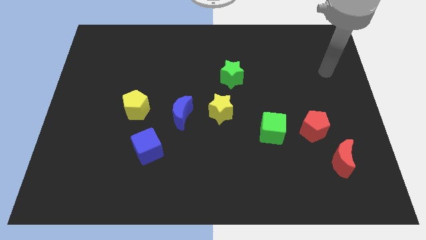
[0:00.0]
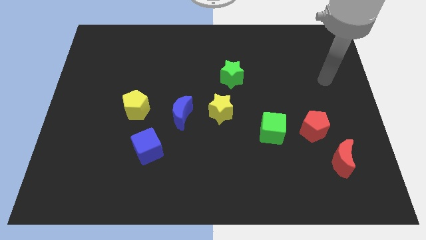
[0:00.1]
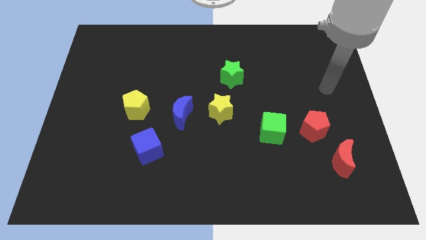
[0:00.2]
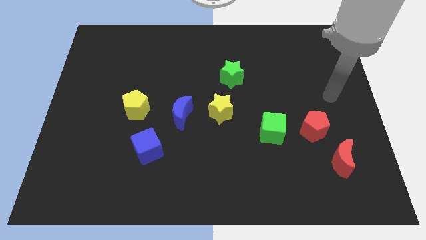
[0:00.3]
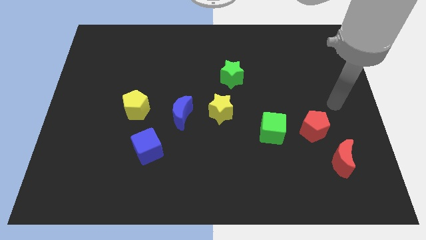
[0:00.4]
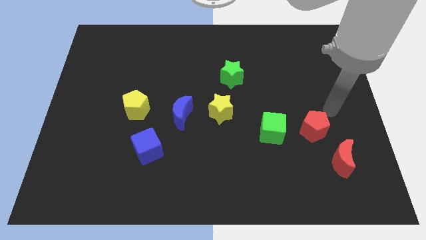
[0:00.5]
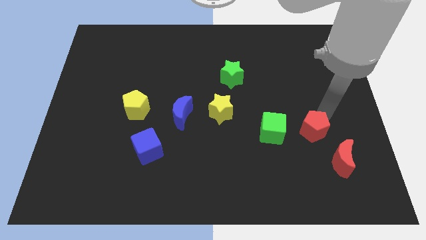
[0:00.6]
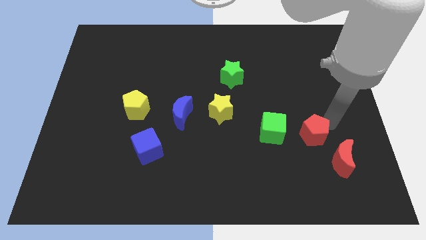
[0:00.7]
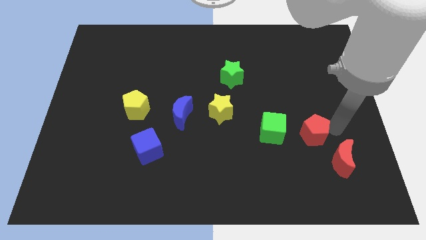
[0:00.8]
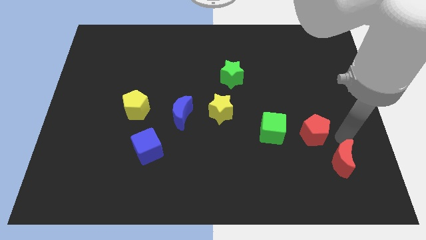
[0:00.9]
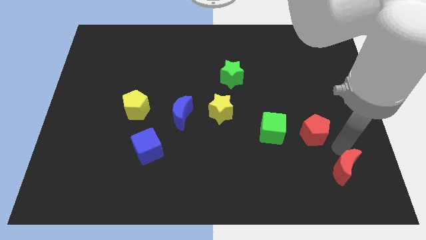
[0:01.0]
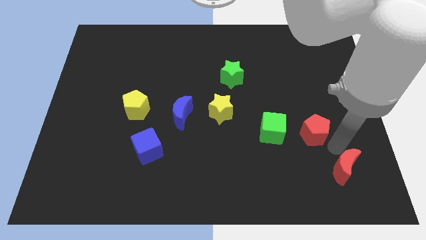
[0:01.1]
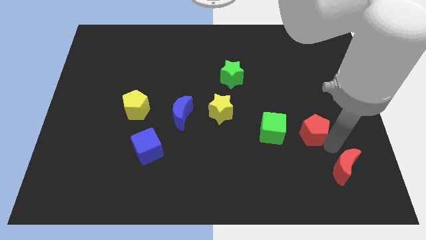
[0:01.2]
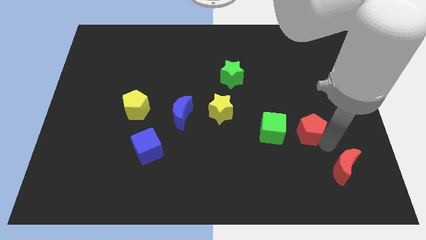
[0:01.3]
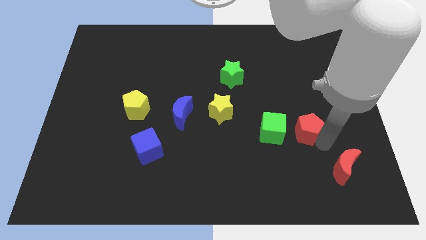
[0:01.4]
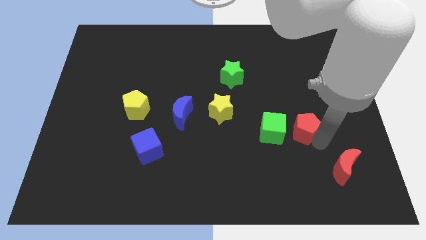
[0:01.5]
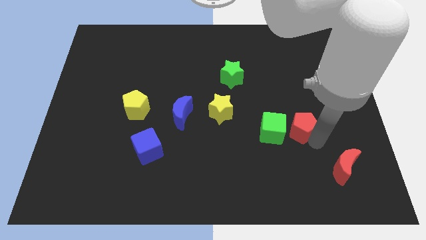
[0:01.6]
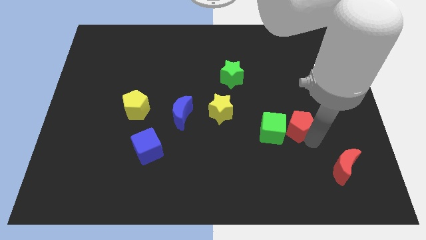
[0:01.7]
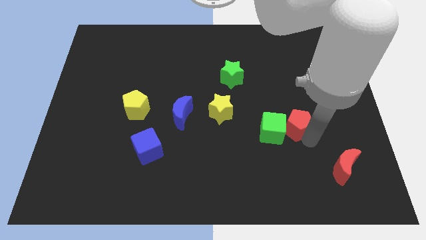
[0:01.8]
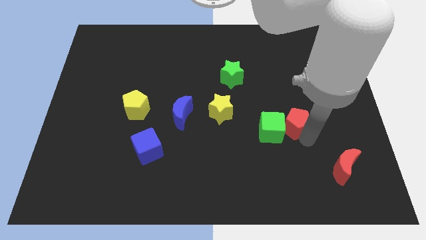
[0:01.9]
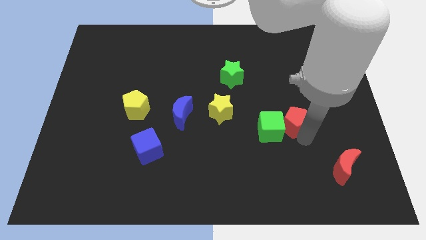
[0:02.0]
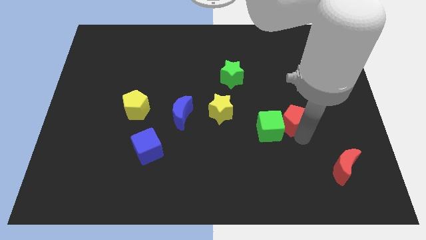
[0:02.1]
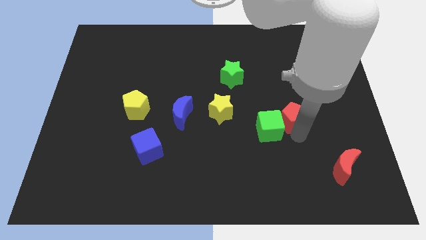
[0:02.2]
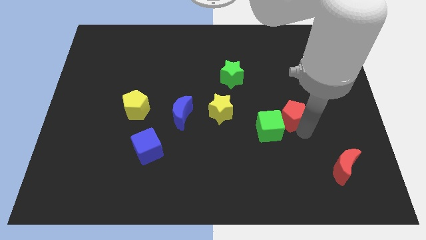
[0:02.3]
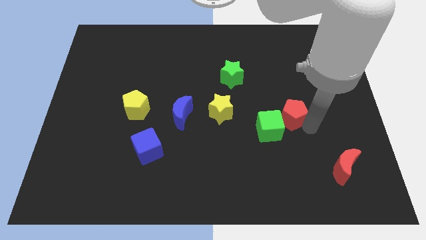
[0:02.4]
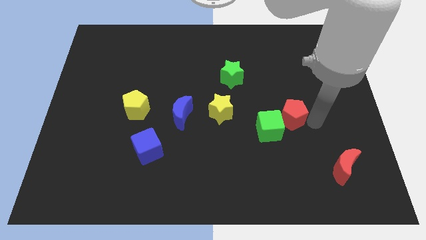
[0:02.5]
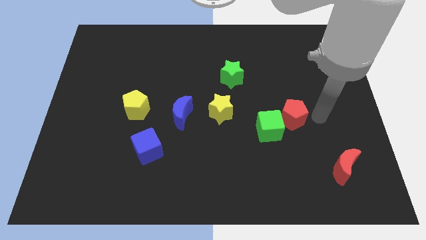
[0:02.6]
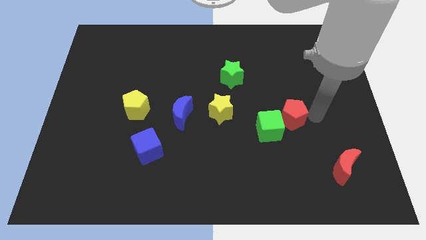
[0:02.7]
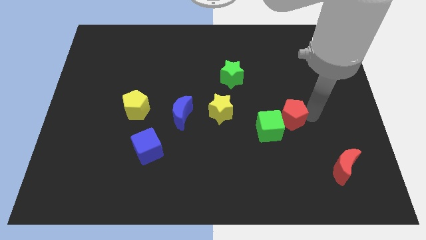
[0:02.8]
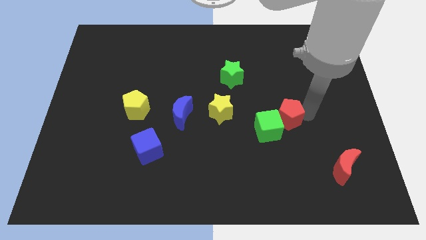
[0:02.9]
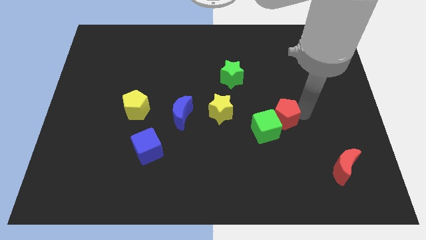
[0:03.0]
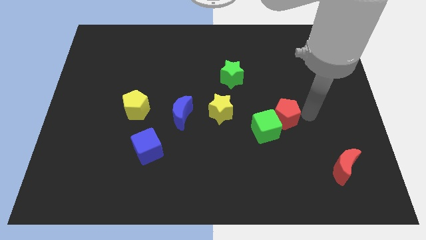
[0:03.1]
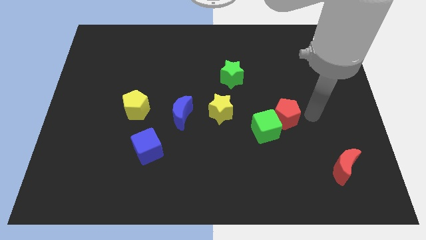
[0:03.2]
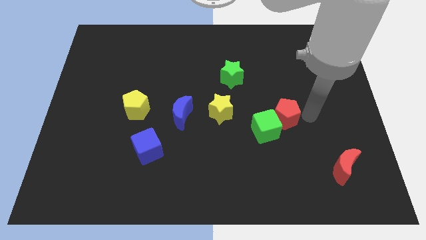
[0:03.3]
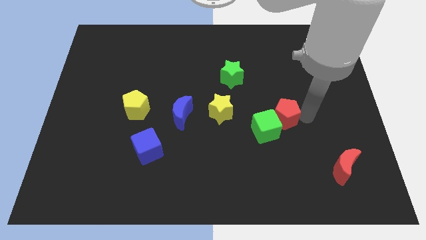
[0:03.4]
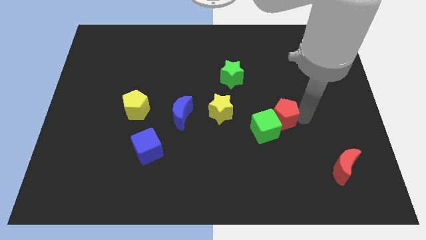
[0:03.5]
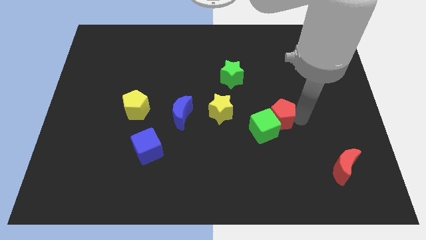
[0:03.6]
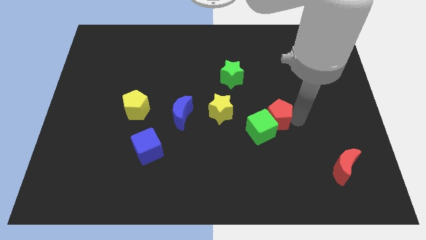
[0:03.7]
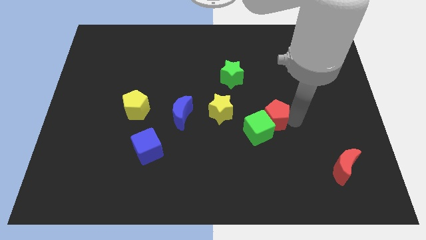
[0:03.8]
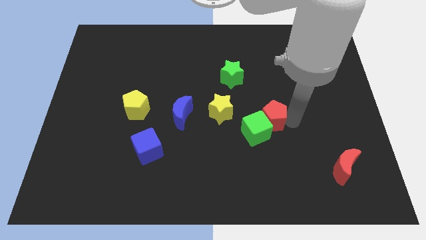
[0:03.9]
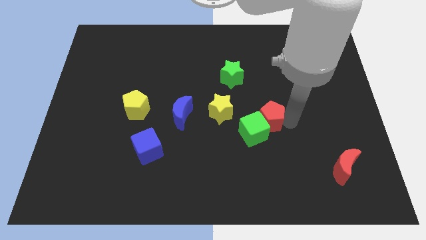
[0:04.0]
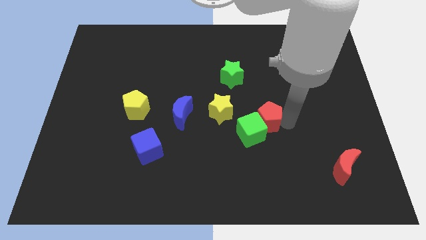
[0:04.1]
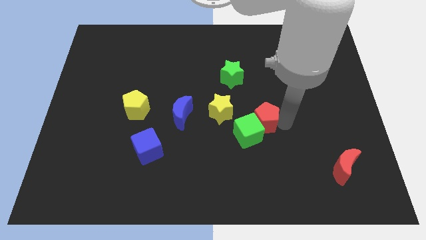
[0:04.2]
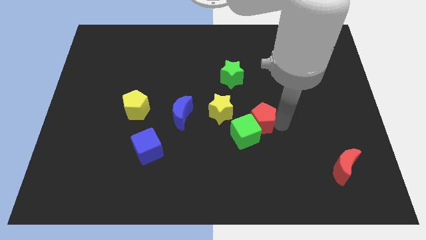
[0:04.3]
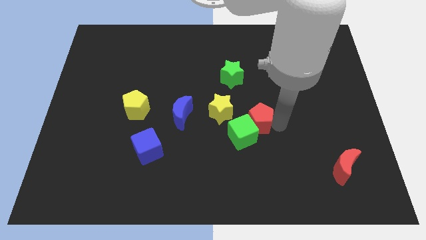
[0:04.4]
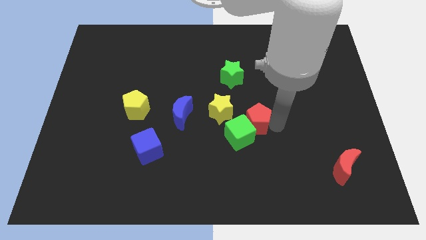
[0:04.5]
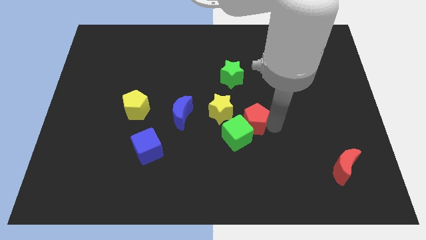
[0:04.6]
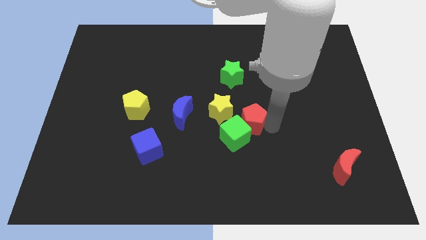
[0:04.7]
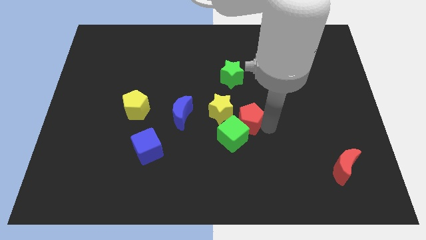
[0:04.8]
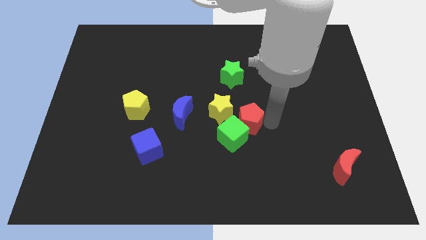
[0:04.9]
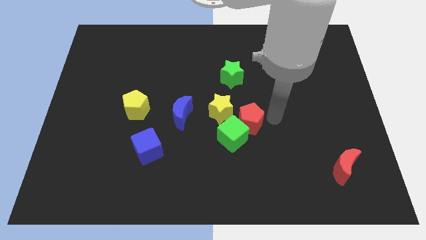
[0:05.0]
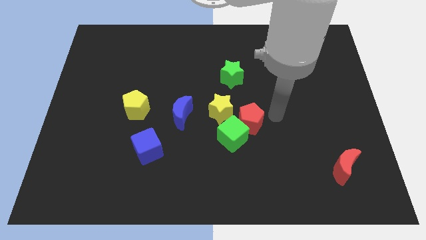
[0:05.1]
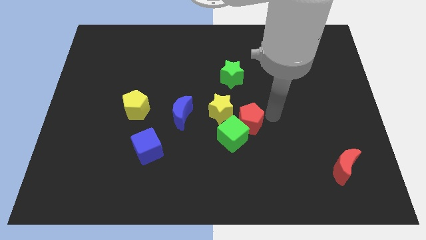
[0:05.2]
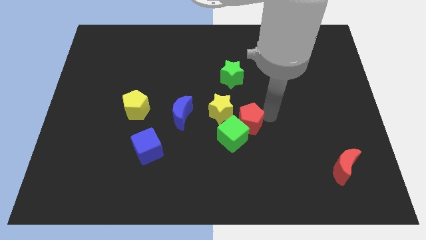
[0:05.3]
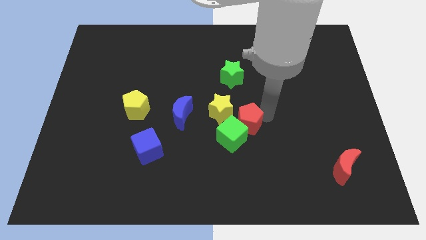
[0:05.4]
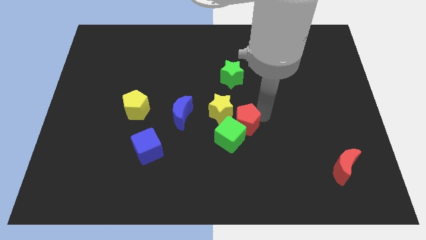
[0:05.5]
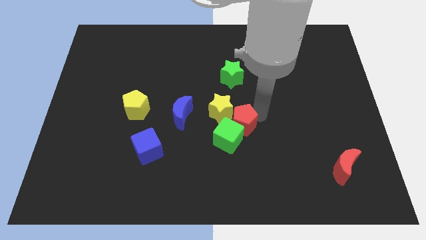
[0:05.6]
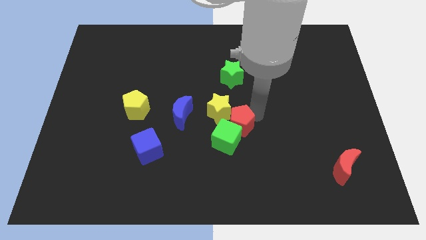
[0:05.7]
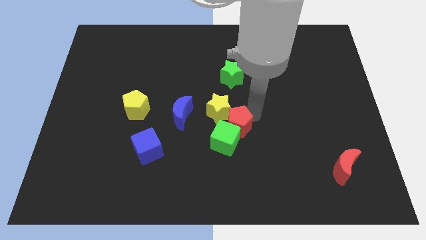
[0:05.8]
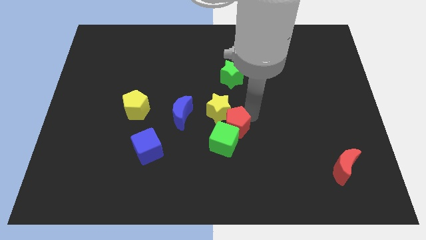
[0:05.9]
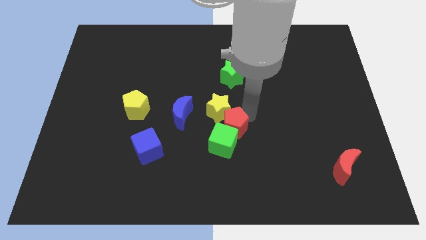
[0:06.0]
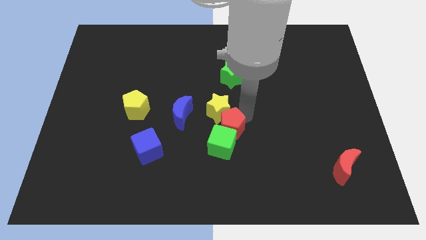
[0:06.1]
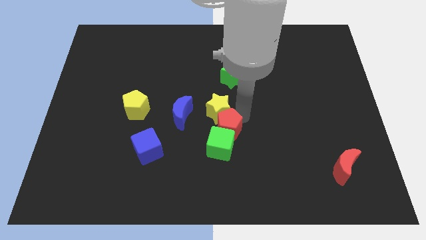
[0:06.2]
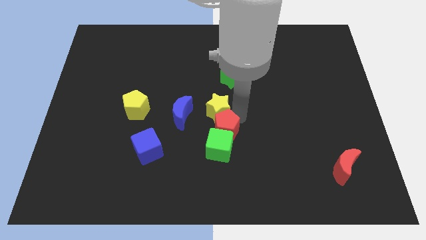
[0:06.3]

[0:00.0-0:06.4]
push the red pentagon to the bottom right of the blue moon

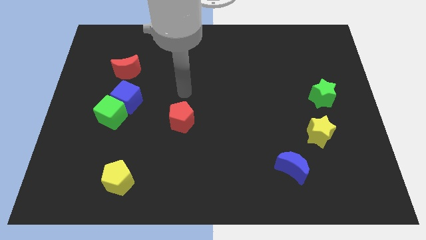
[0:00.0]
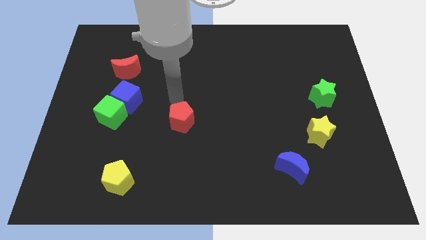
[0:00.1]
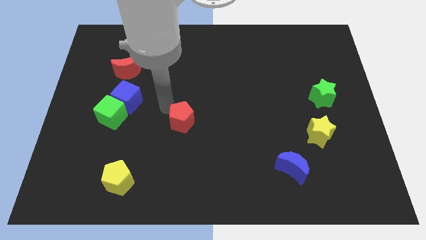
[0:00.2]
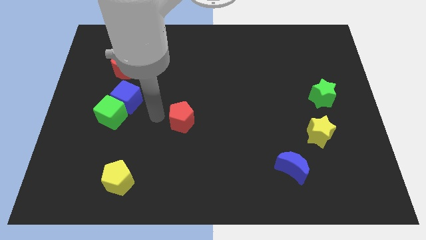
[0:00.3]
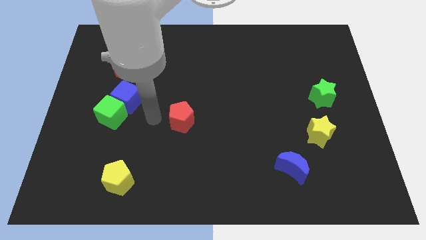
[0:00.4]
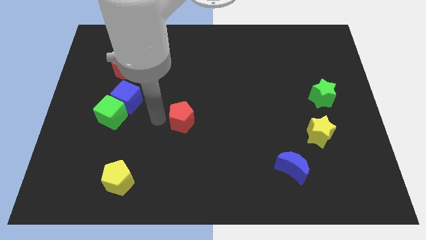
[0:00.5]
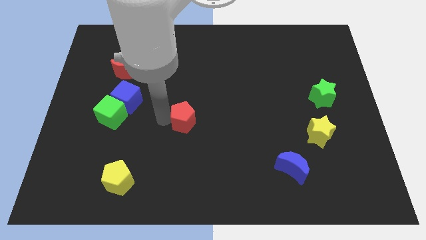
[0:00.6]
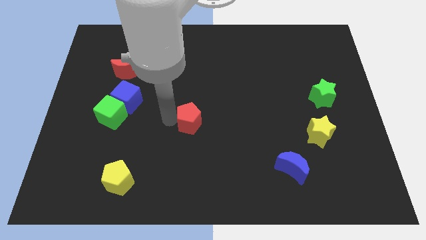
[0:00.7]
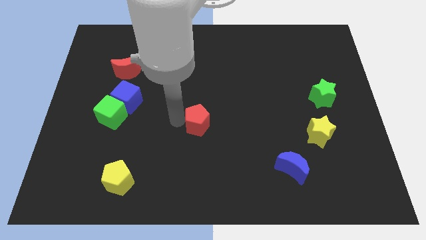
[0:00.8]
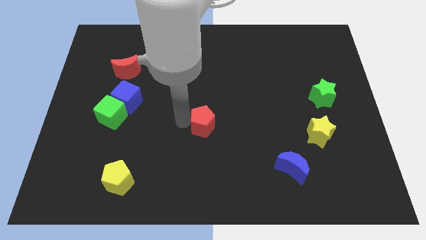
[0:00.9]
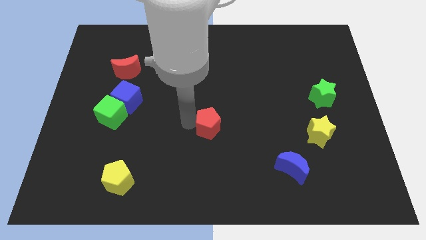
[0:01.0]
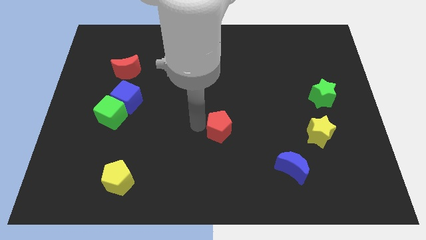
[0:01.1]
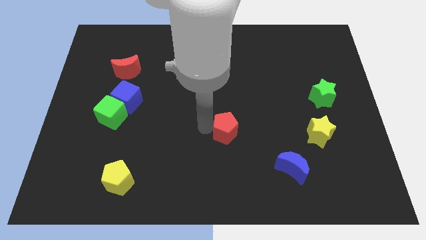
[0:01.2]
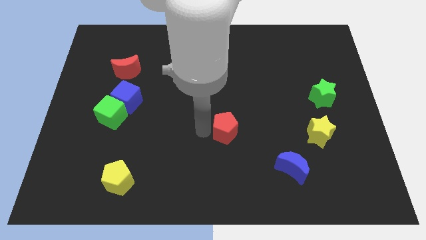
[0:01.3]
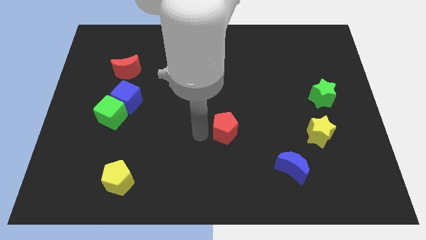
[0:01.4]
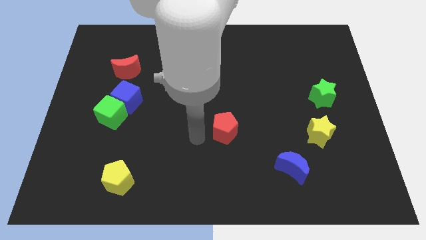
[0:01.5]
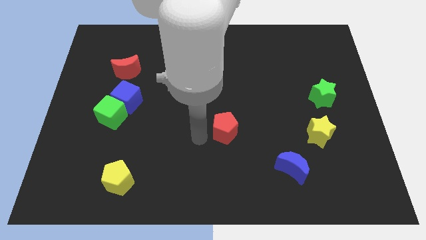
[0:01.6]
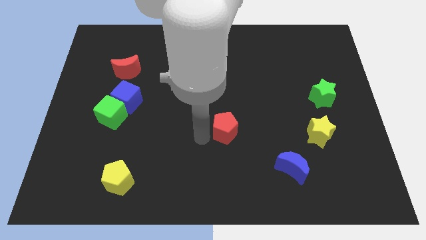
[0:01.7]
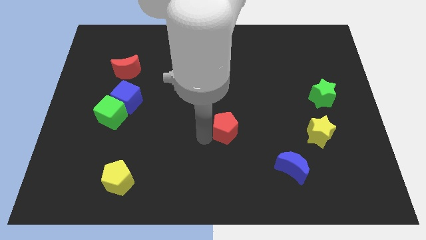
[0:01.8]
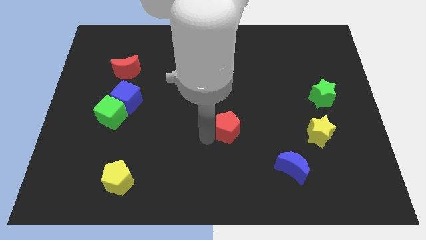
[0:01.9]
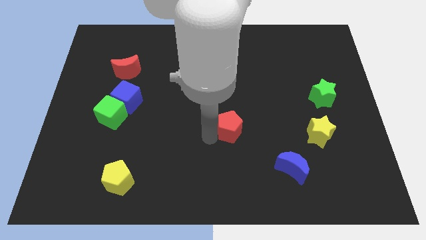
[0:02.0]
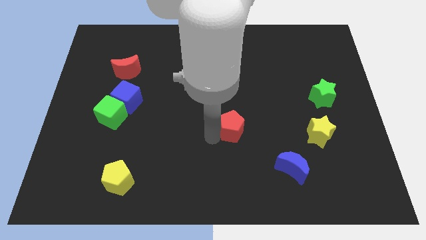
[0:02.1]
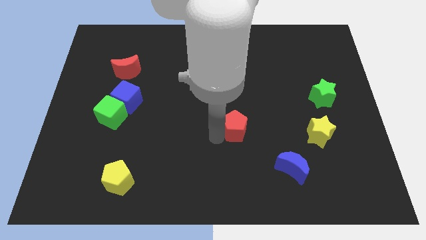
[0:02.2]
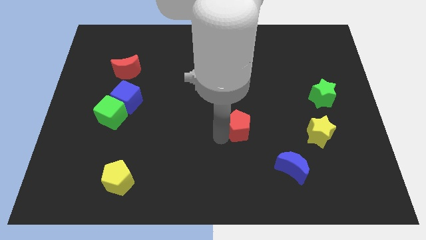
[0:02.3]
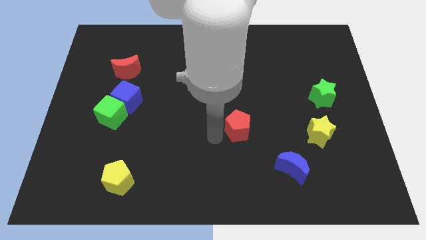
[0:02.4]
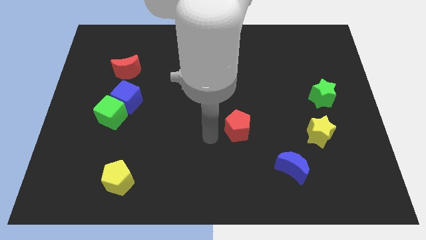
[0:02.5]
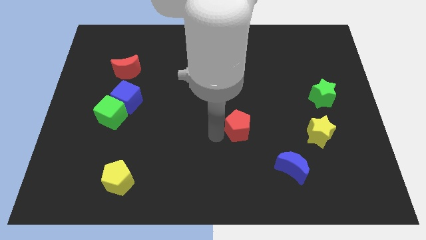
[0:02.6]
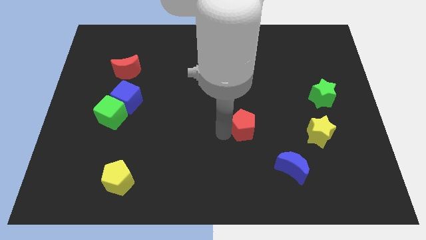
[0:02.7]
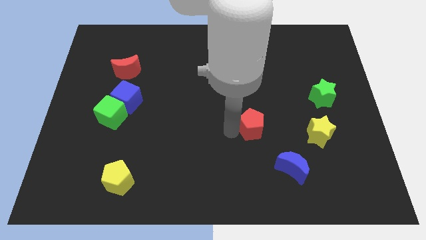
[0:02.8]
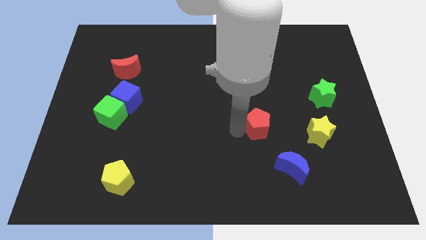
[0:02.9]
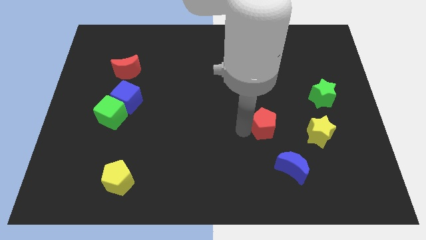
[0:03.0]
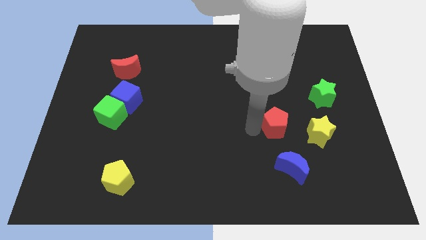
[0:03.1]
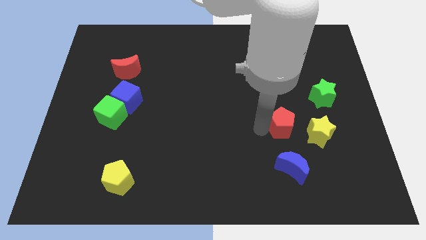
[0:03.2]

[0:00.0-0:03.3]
push the red pentagon diagonally up and to the left of the yellow star
